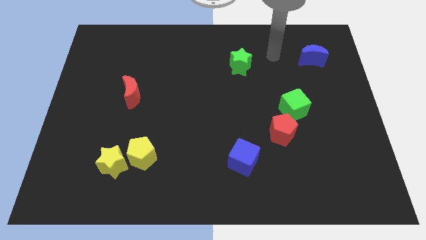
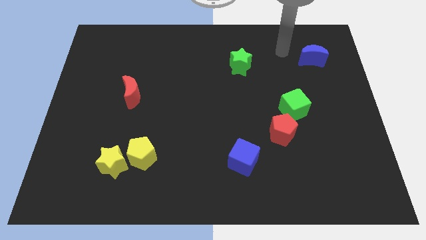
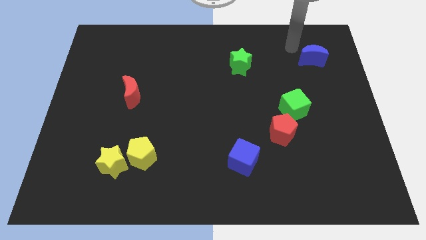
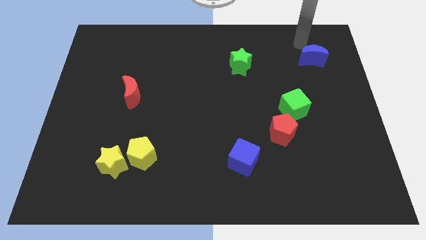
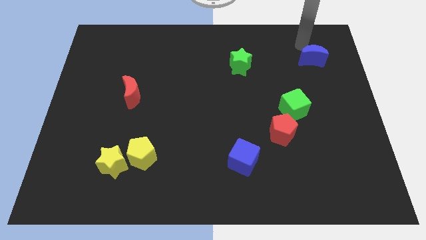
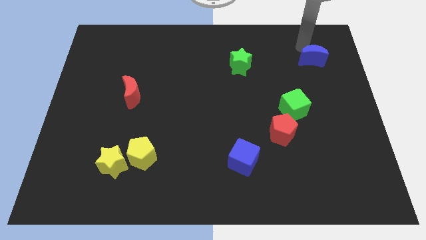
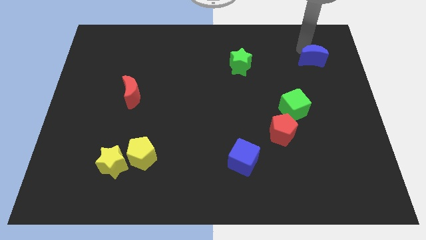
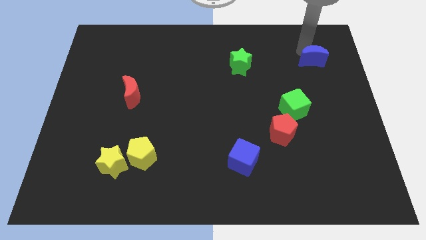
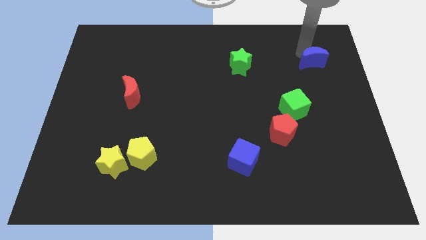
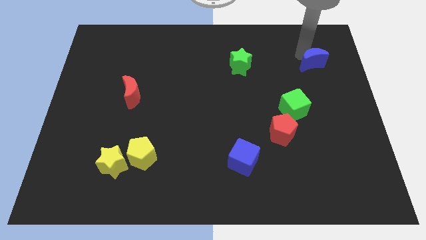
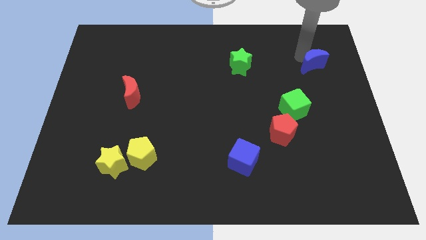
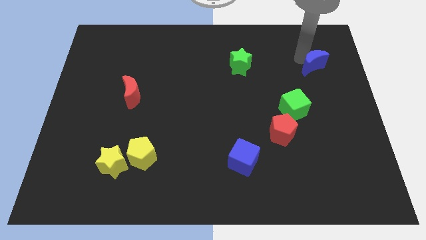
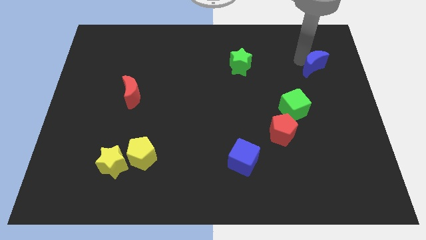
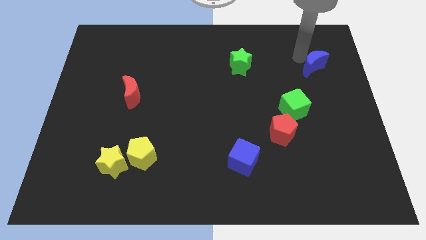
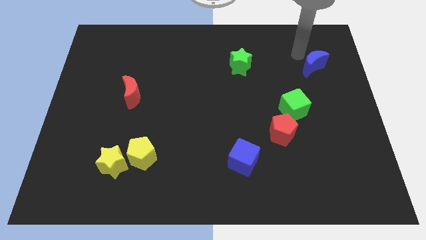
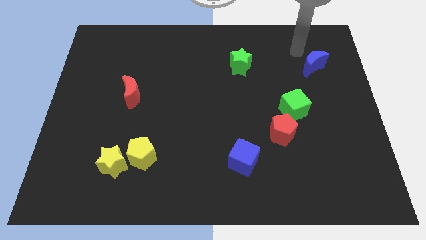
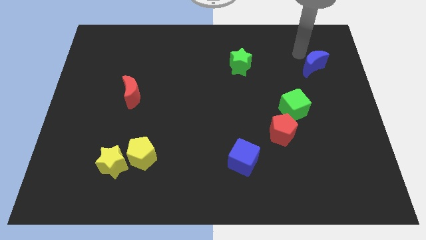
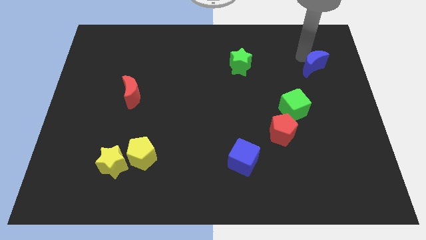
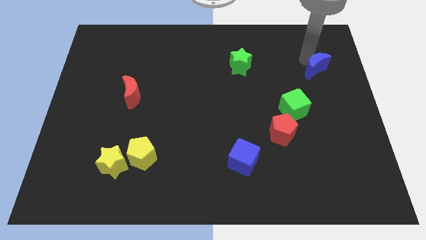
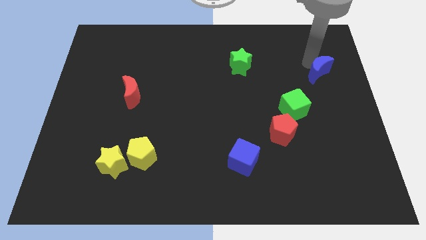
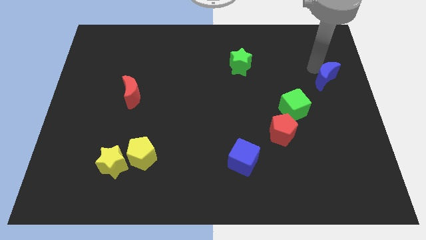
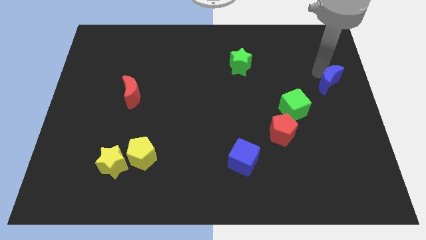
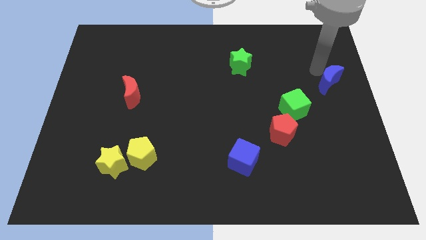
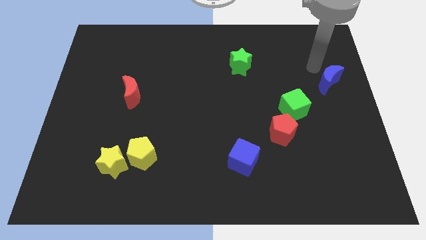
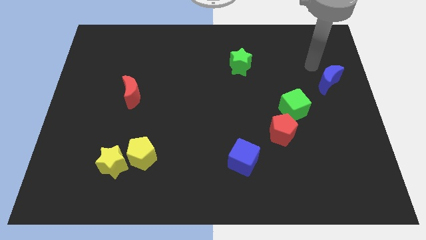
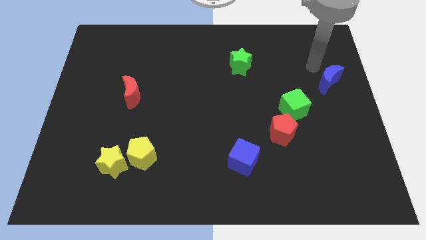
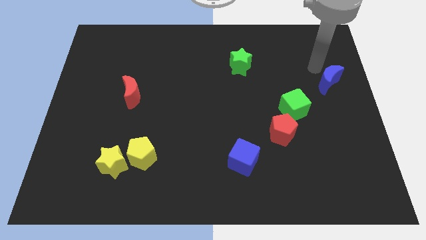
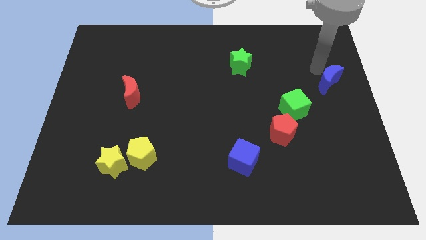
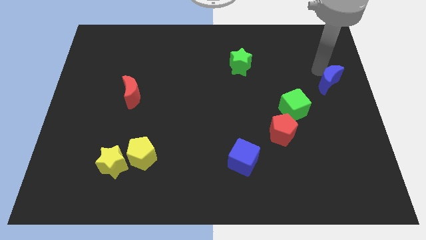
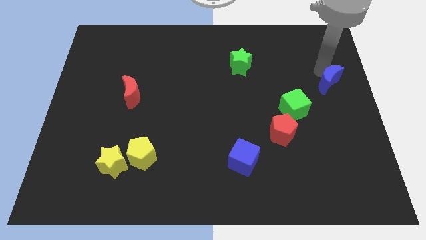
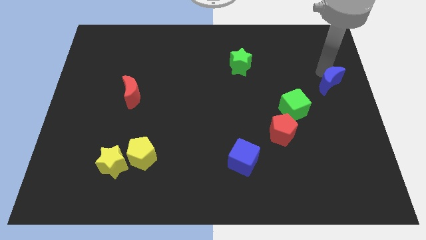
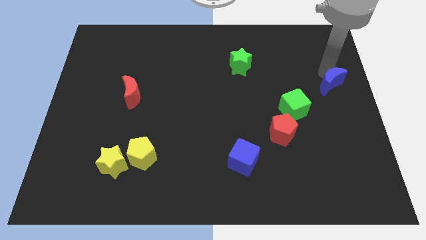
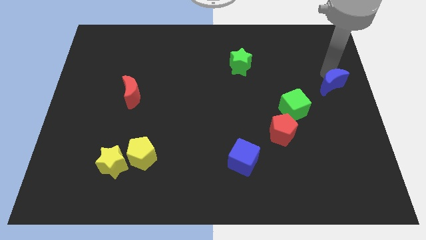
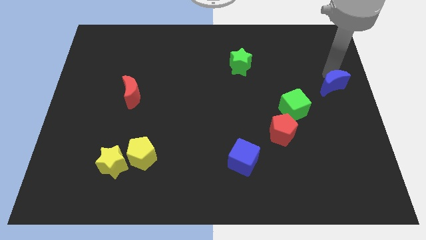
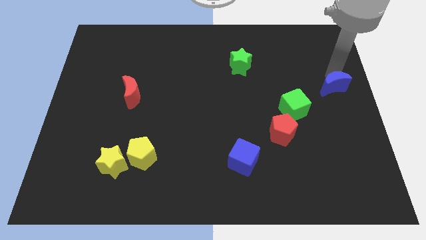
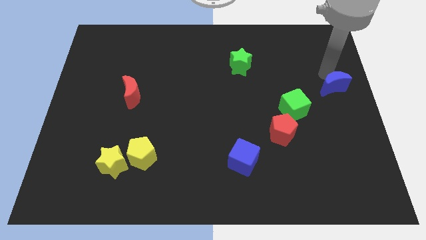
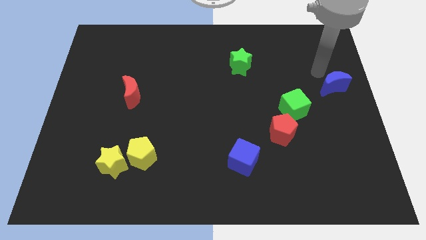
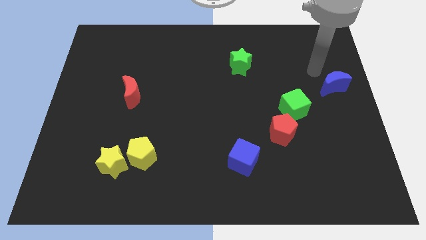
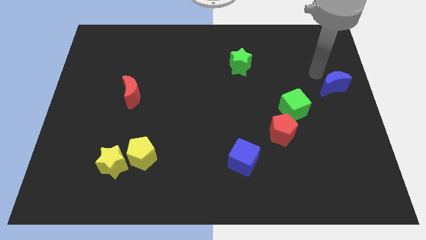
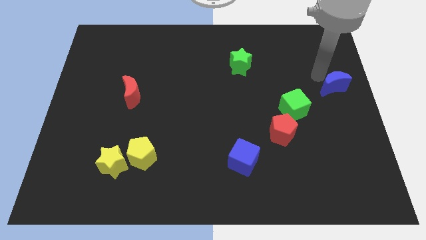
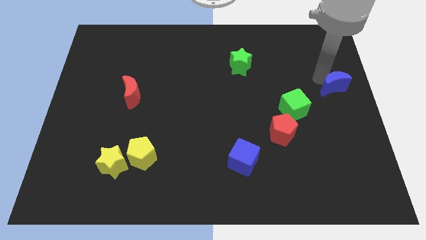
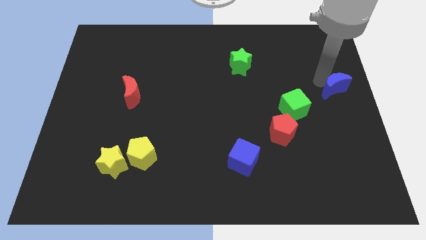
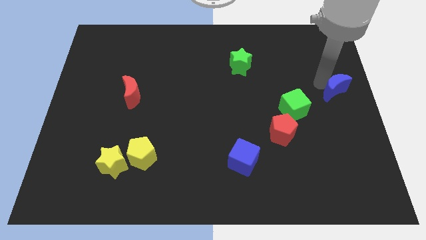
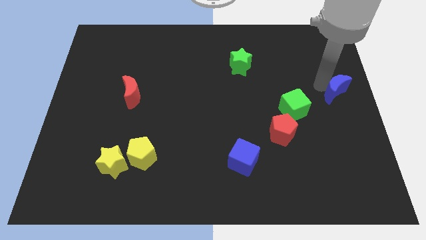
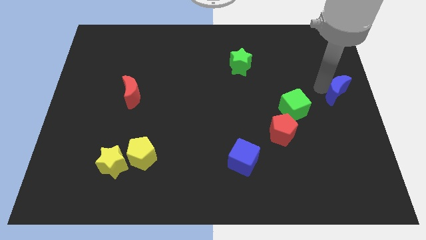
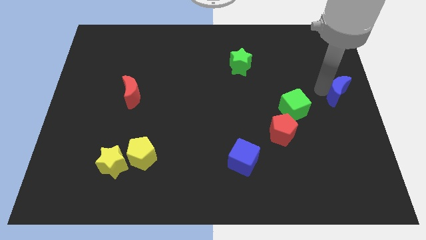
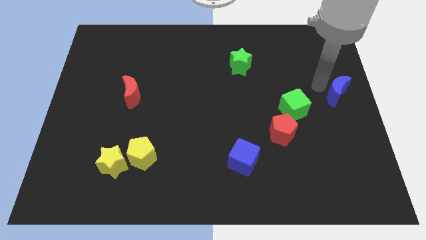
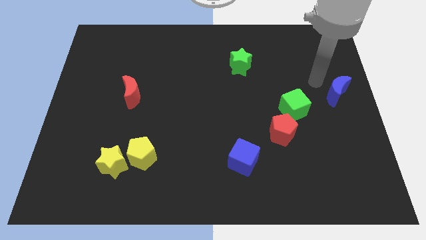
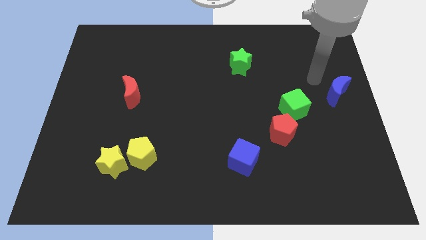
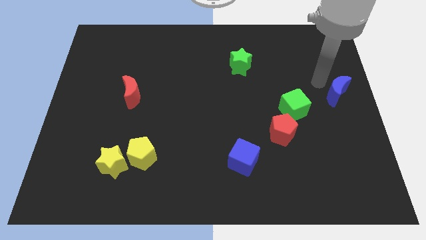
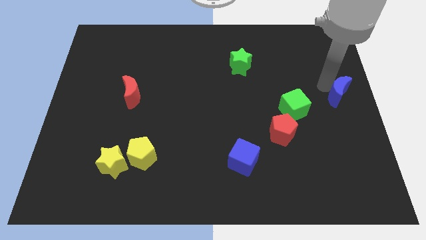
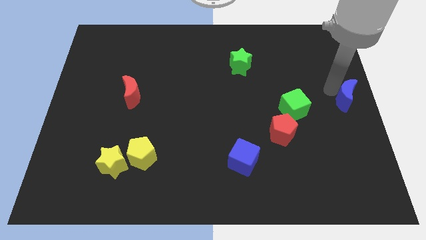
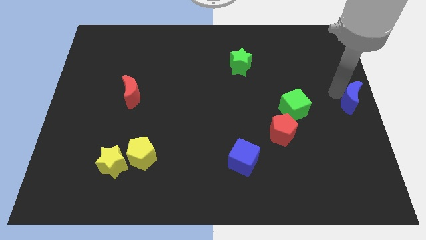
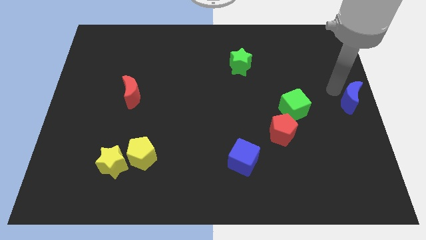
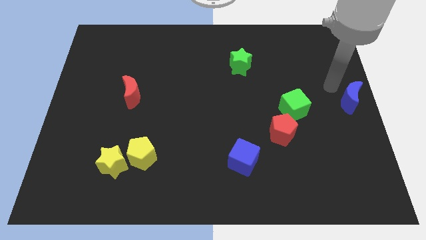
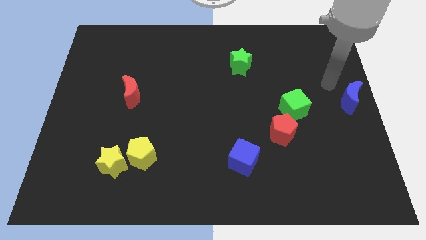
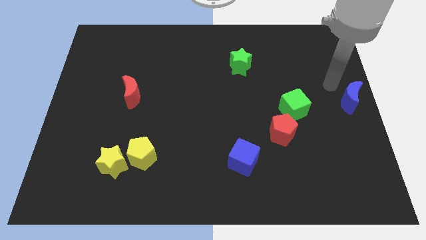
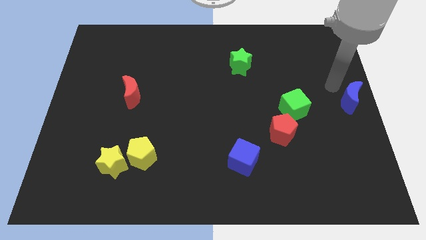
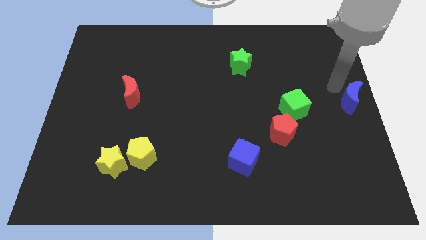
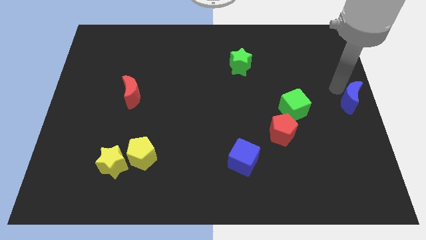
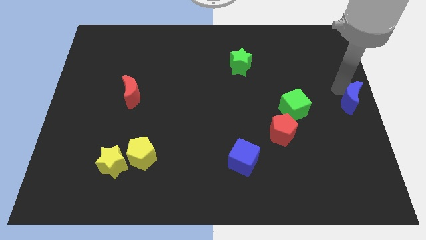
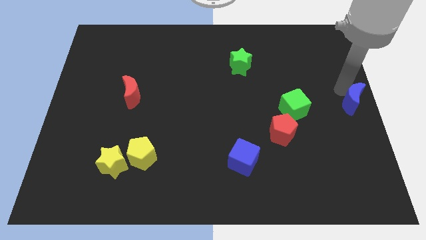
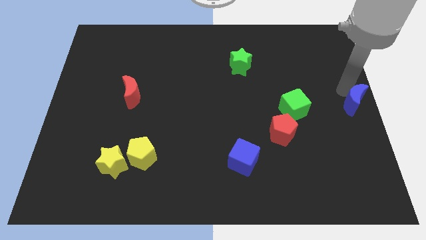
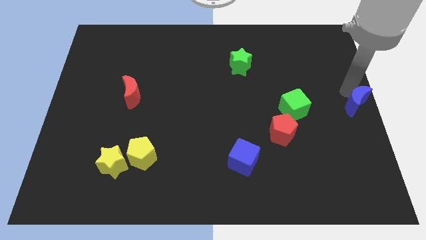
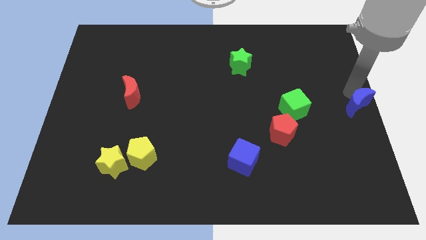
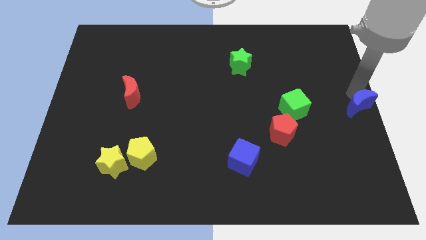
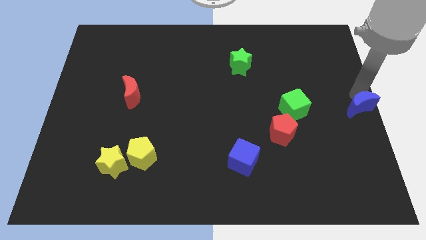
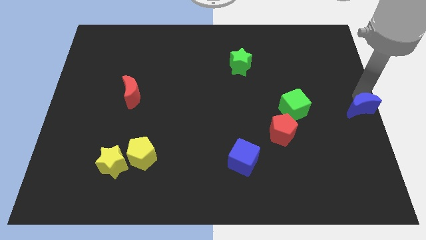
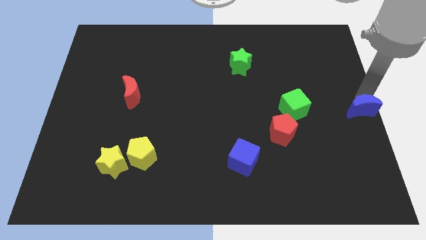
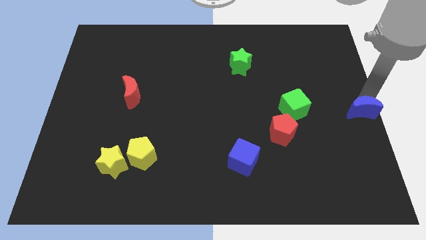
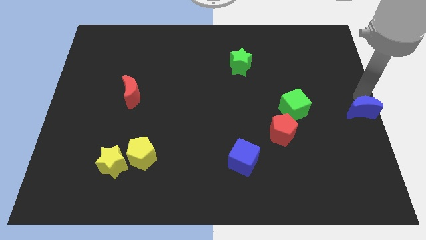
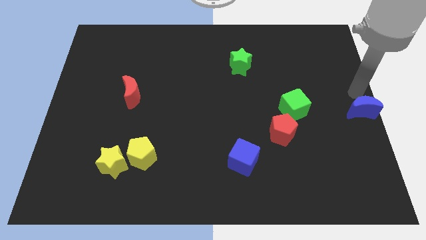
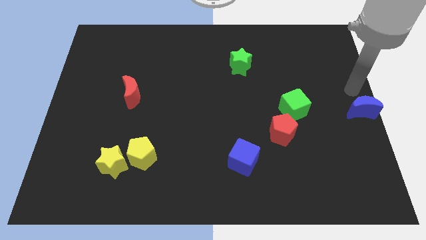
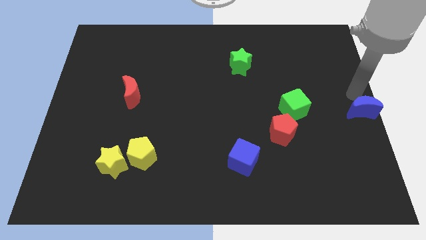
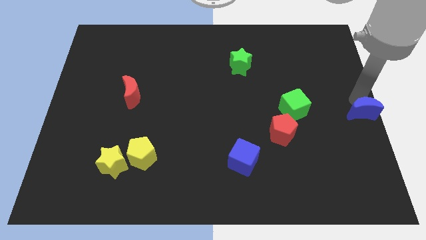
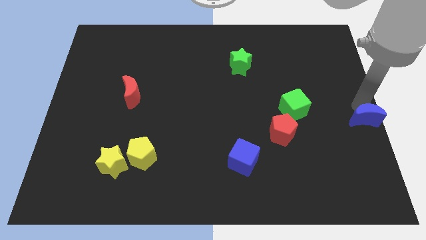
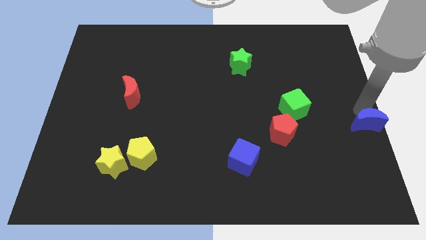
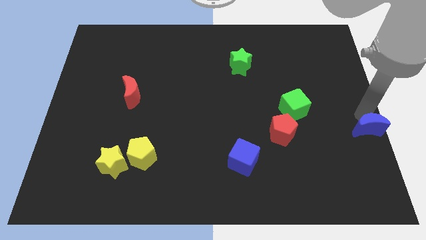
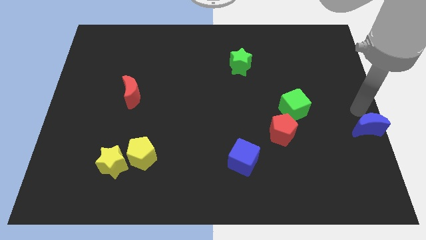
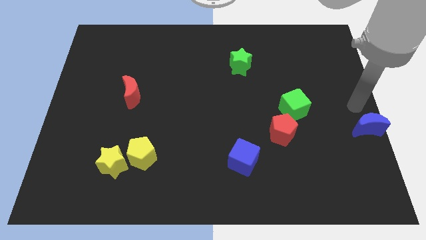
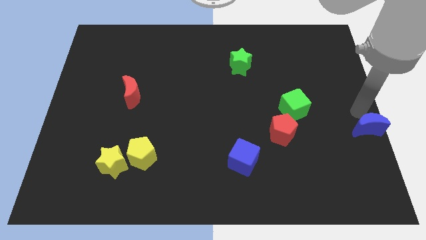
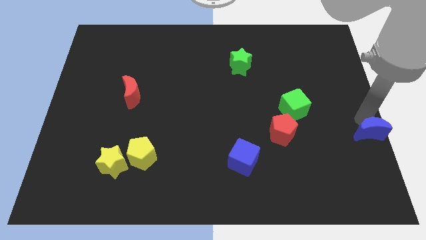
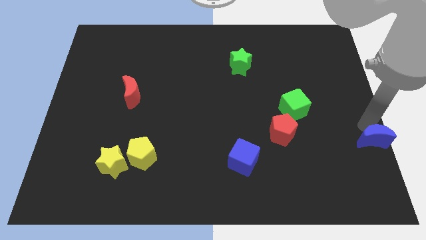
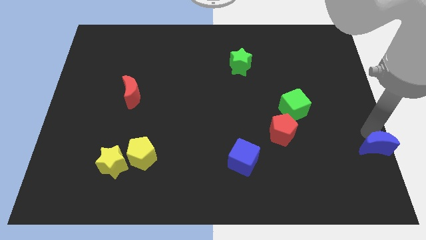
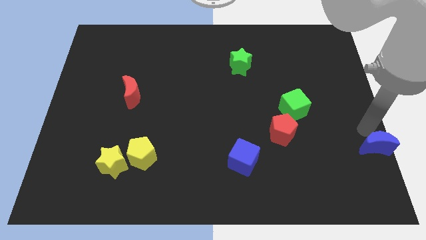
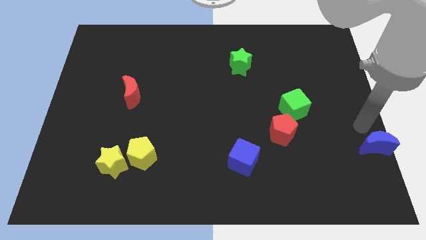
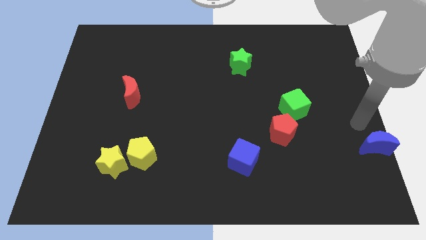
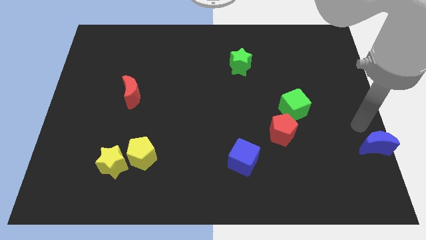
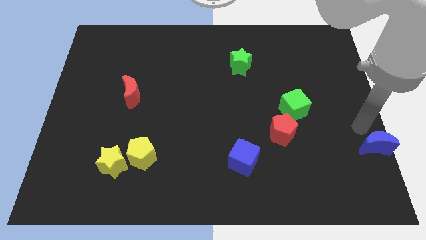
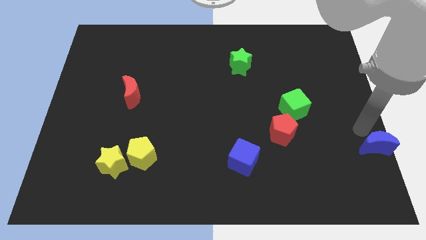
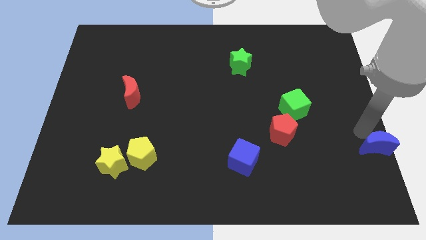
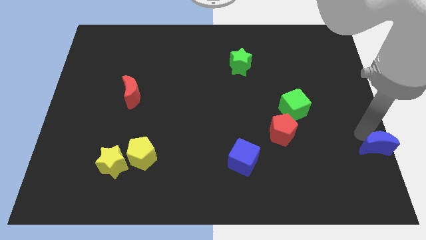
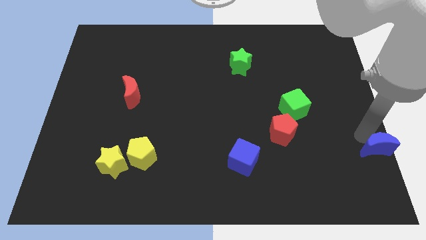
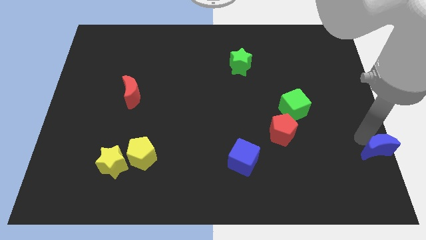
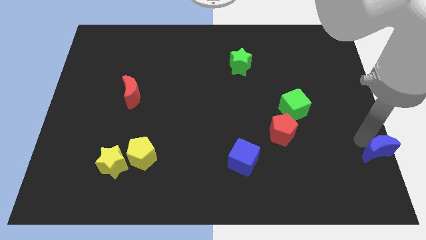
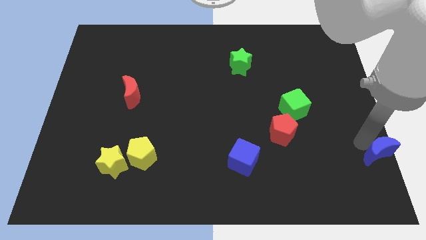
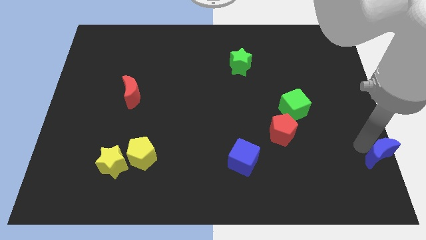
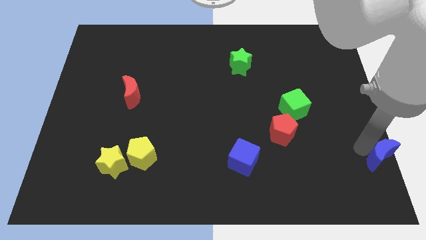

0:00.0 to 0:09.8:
move the blue moon to the lower right corner
